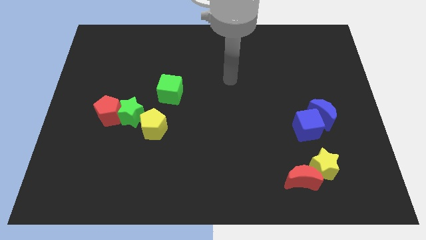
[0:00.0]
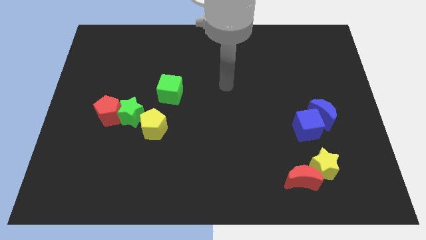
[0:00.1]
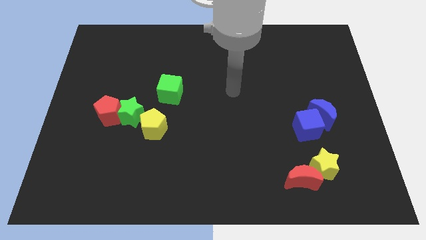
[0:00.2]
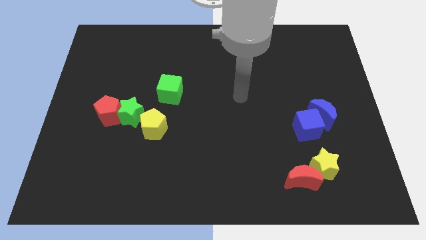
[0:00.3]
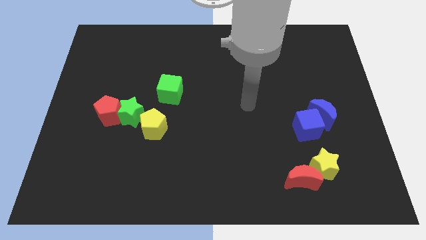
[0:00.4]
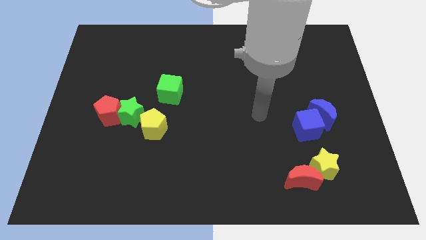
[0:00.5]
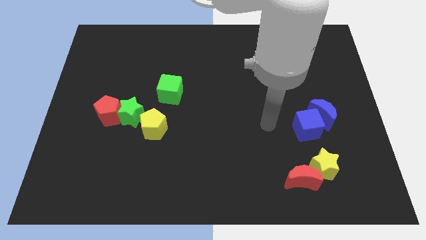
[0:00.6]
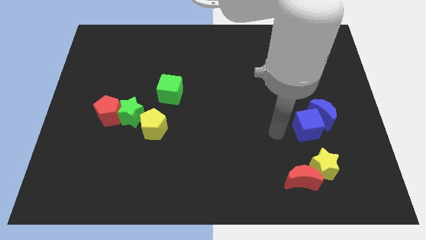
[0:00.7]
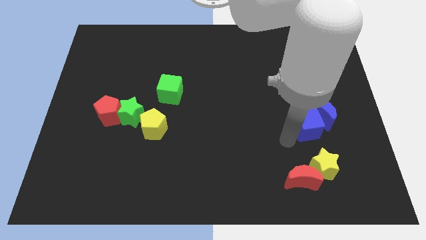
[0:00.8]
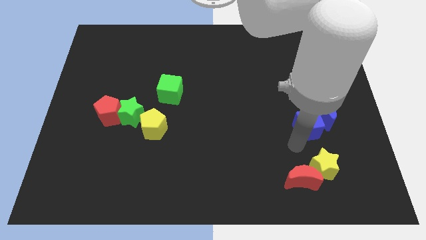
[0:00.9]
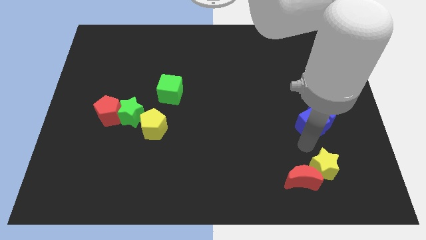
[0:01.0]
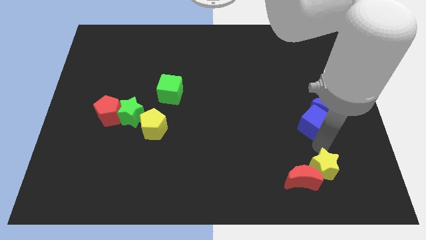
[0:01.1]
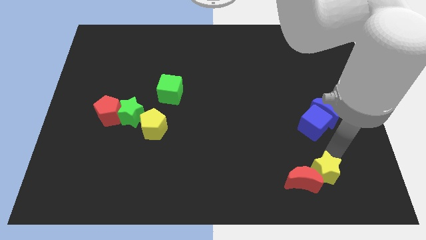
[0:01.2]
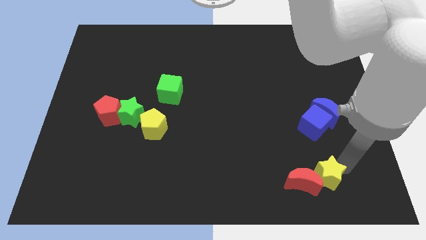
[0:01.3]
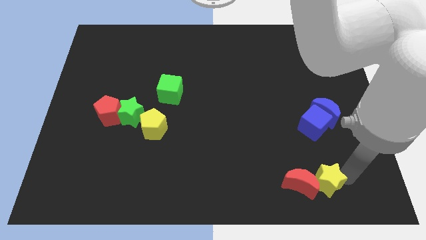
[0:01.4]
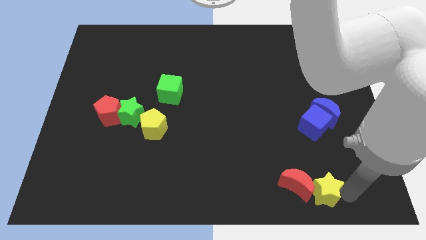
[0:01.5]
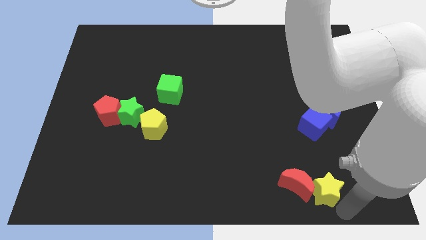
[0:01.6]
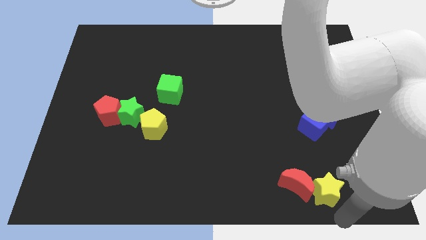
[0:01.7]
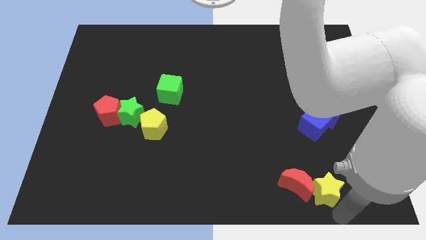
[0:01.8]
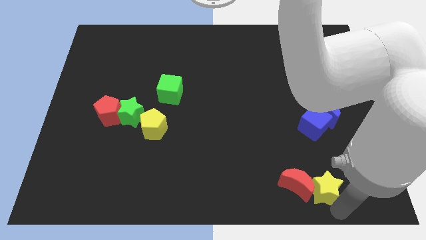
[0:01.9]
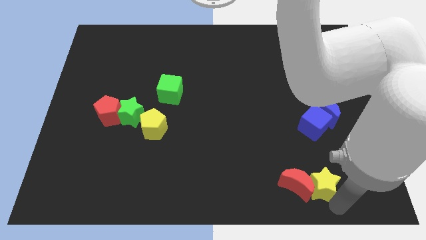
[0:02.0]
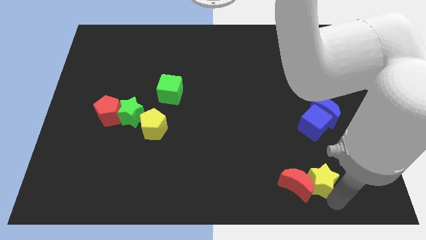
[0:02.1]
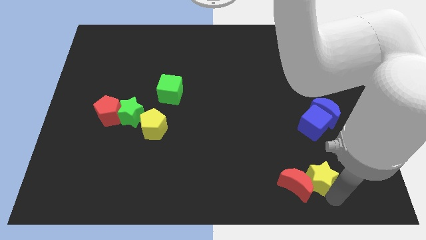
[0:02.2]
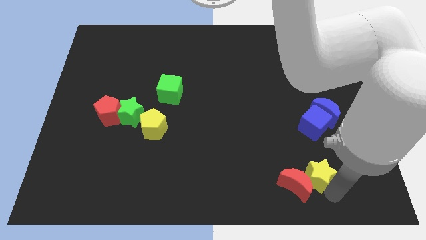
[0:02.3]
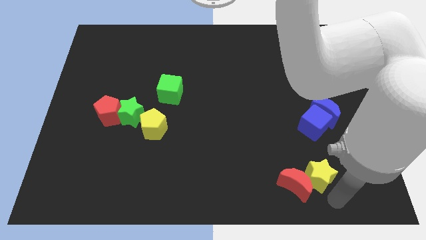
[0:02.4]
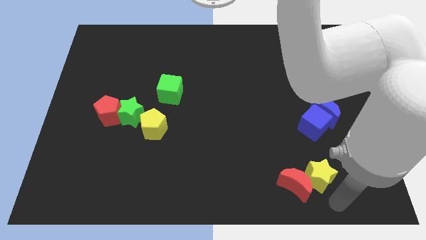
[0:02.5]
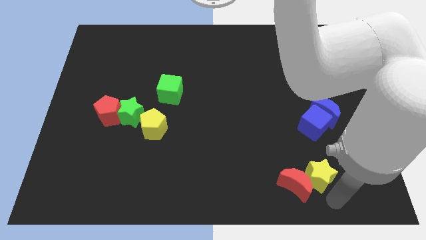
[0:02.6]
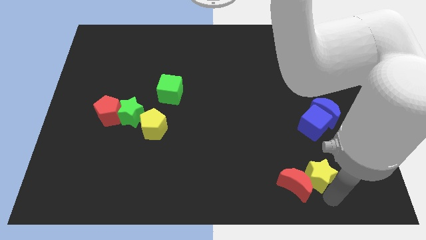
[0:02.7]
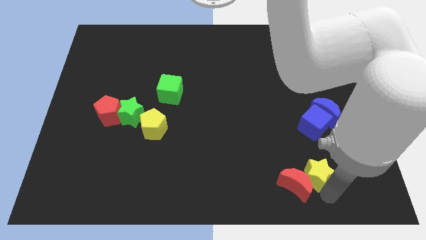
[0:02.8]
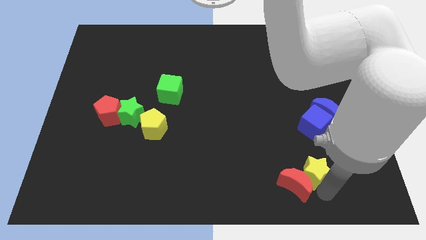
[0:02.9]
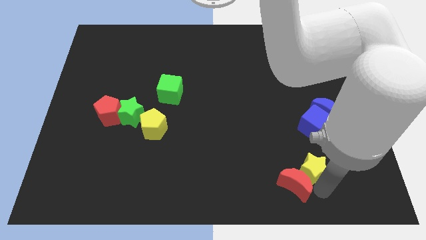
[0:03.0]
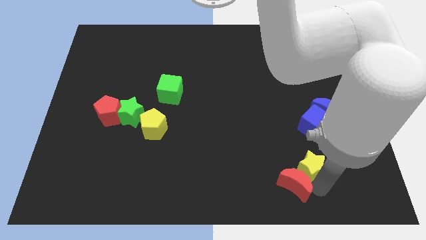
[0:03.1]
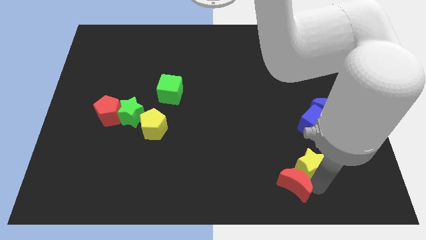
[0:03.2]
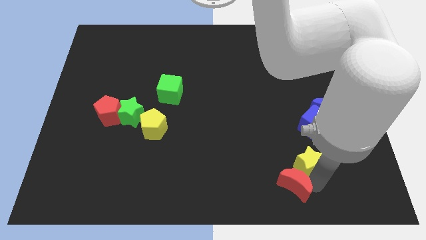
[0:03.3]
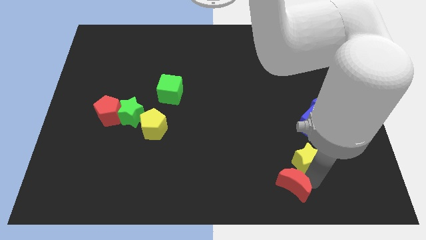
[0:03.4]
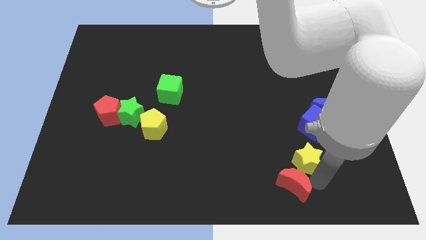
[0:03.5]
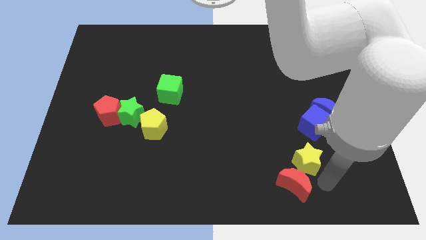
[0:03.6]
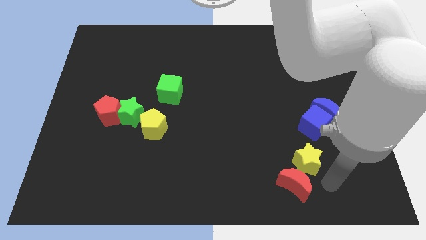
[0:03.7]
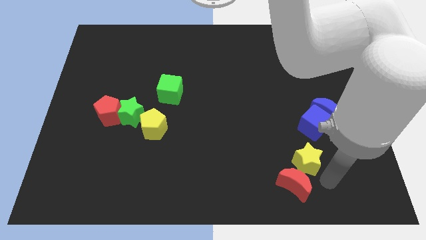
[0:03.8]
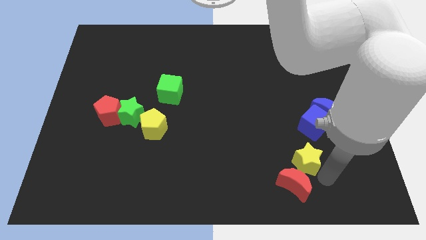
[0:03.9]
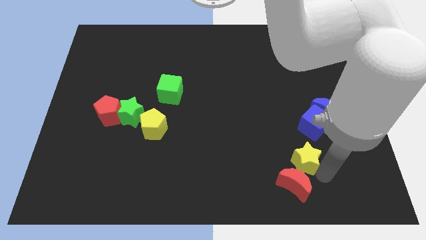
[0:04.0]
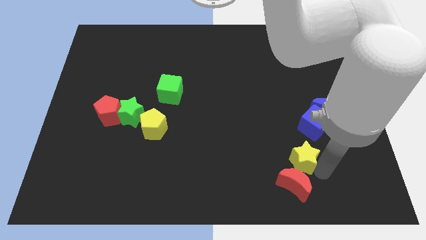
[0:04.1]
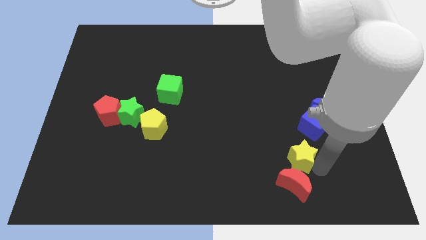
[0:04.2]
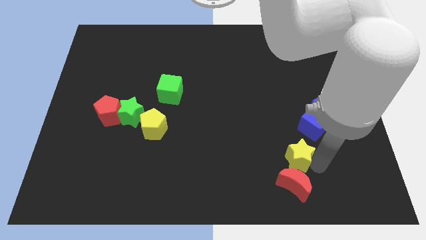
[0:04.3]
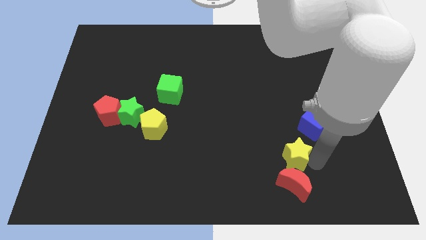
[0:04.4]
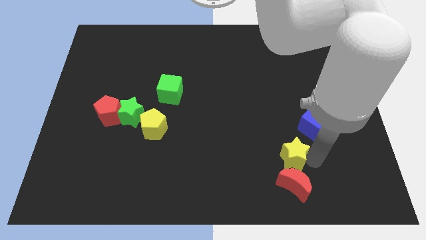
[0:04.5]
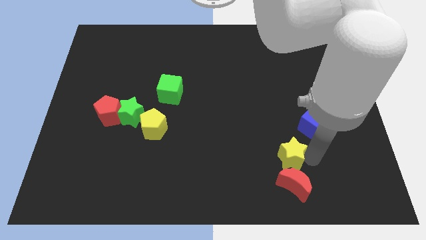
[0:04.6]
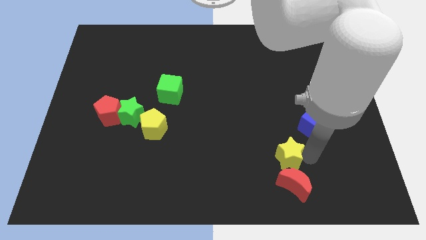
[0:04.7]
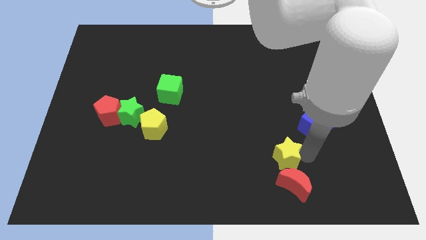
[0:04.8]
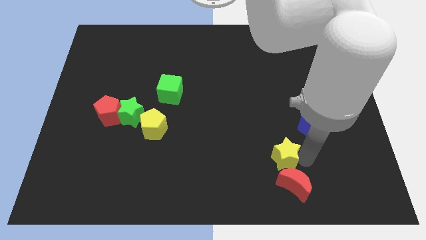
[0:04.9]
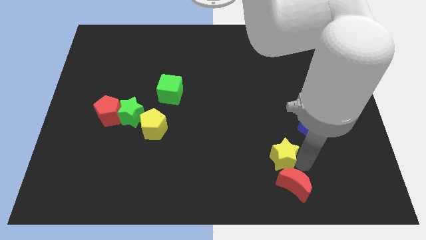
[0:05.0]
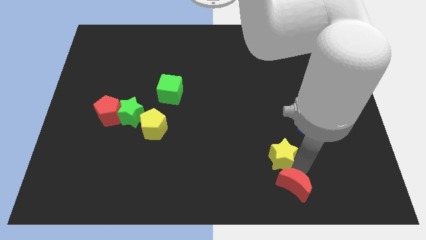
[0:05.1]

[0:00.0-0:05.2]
slightly push the yellow star diagonally up and to the left

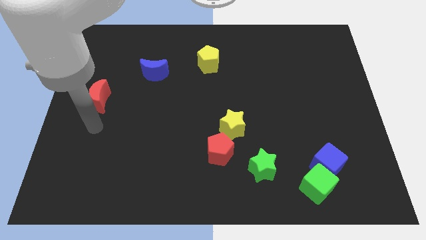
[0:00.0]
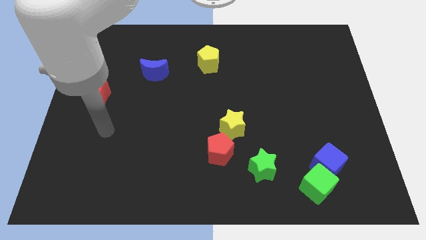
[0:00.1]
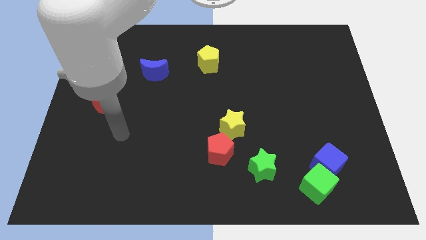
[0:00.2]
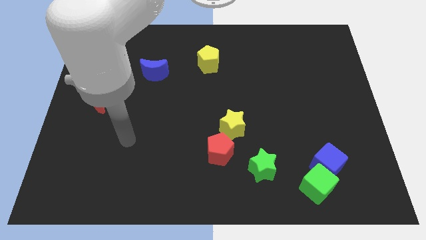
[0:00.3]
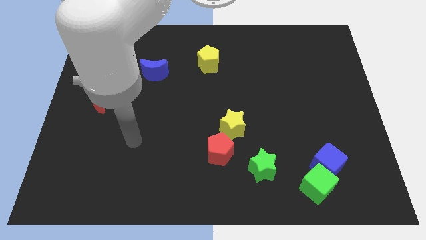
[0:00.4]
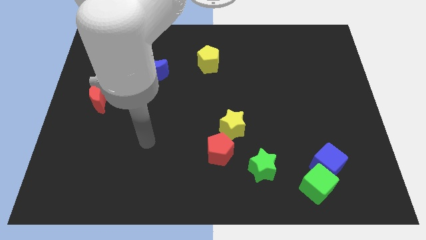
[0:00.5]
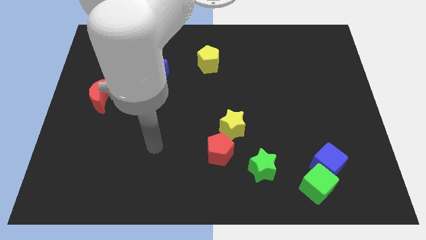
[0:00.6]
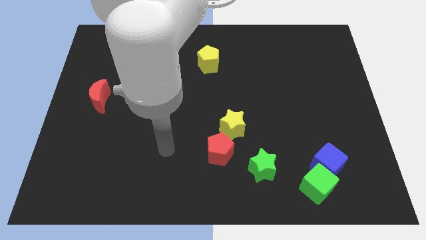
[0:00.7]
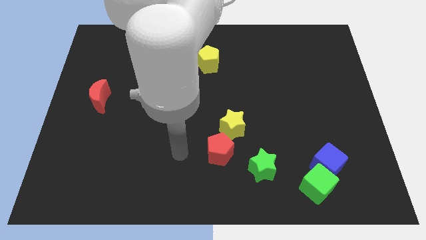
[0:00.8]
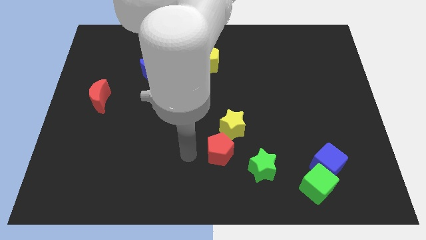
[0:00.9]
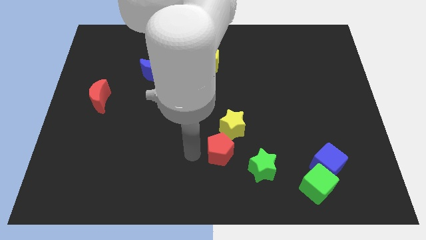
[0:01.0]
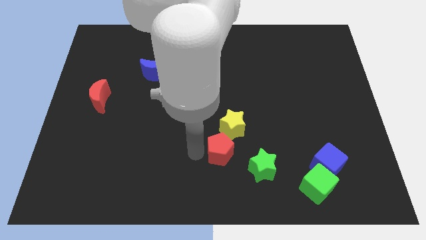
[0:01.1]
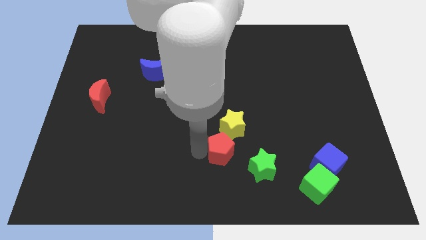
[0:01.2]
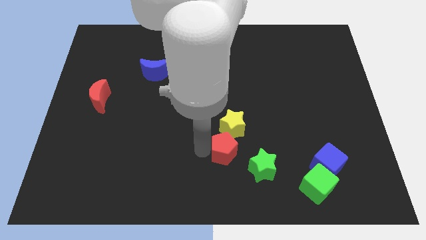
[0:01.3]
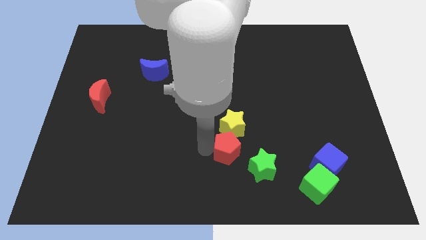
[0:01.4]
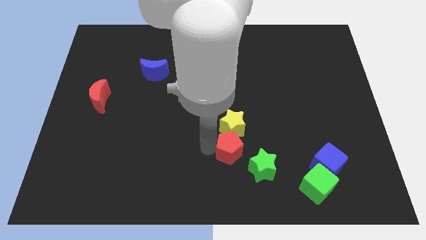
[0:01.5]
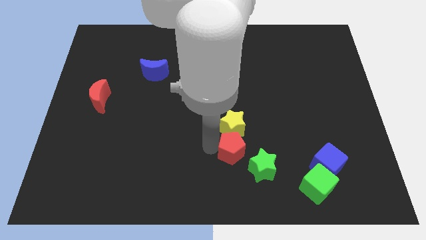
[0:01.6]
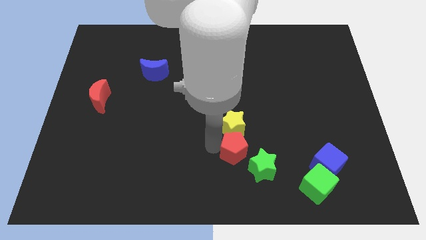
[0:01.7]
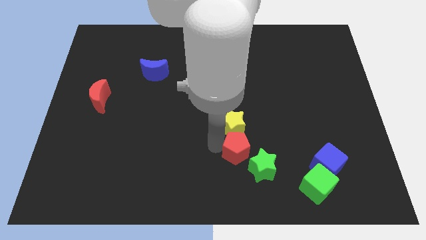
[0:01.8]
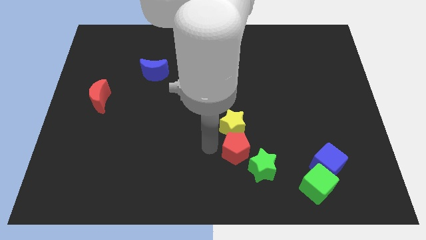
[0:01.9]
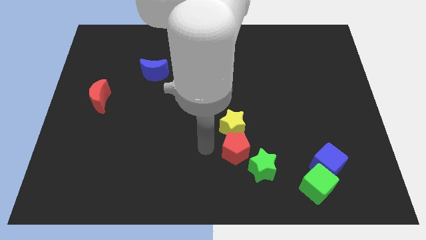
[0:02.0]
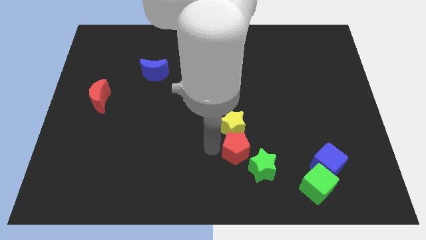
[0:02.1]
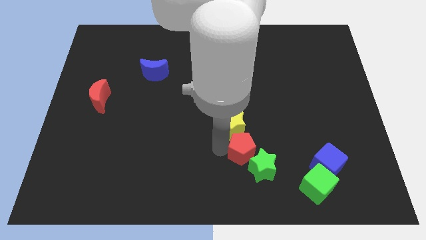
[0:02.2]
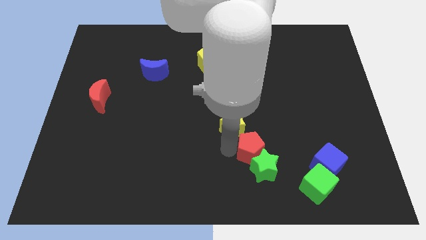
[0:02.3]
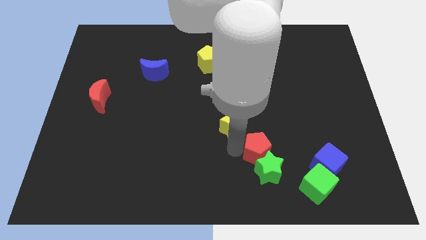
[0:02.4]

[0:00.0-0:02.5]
push the red pentagon right a little bit
